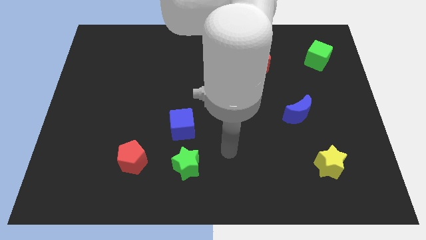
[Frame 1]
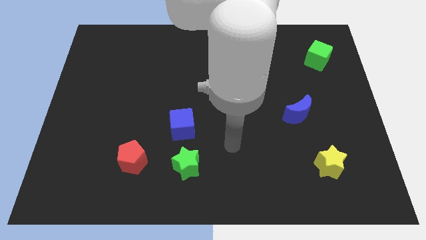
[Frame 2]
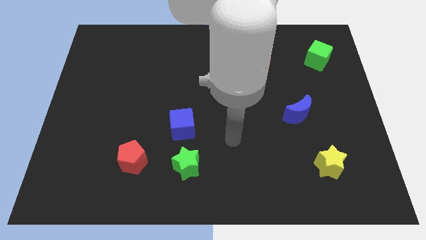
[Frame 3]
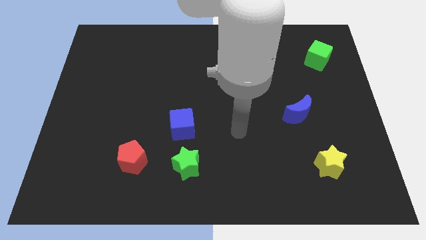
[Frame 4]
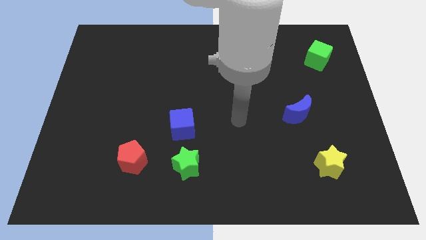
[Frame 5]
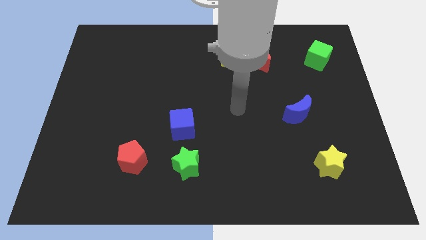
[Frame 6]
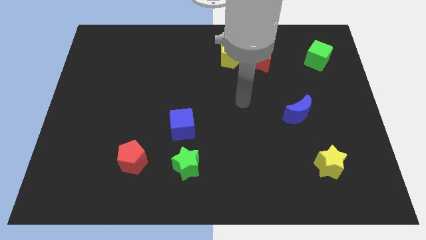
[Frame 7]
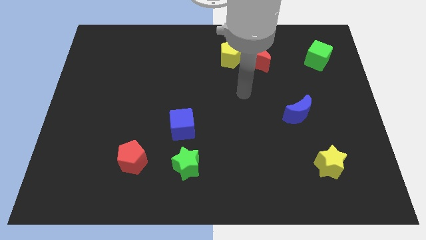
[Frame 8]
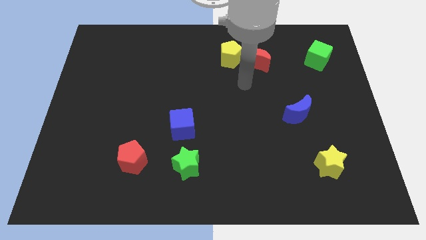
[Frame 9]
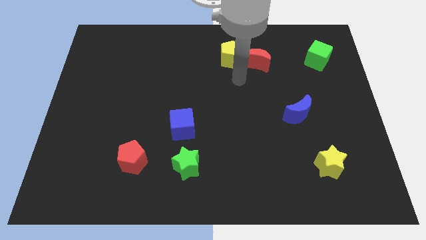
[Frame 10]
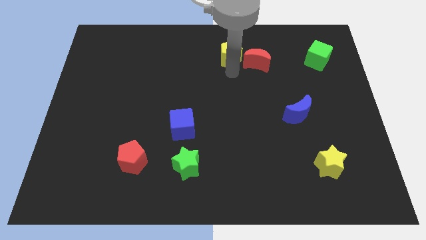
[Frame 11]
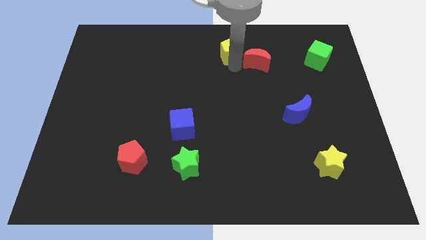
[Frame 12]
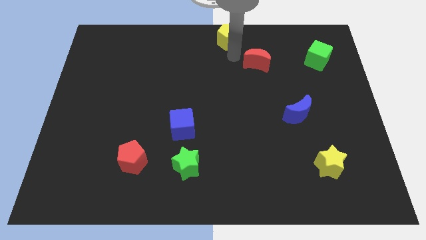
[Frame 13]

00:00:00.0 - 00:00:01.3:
move the red moon away from the yellow pentagon

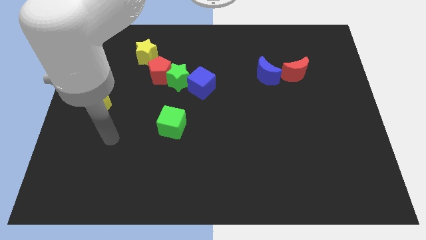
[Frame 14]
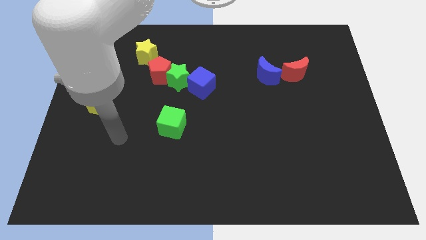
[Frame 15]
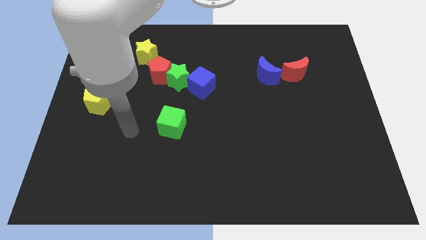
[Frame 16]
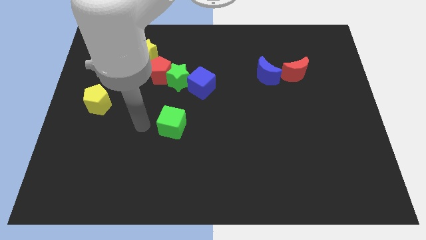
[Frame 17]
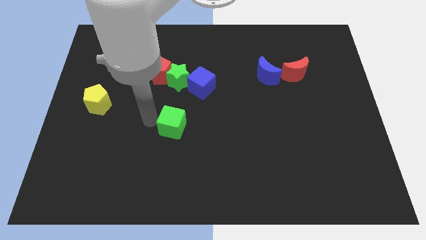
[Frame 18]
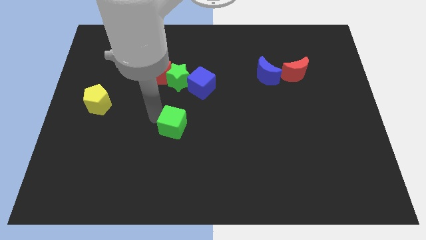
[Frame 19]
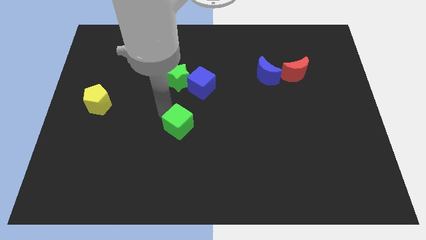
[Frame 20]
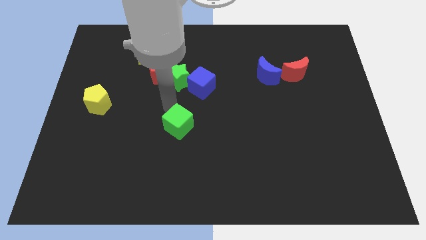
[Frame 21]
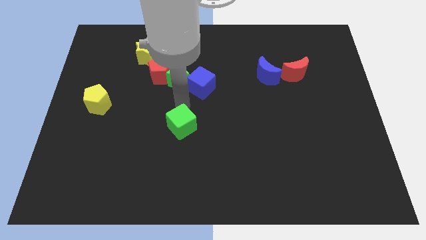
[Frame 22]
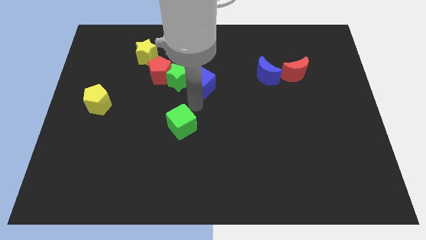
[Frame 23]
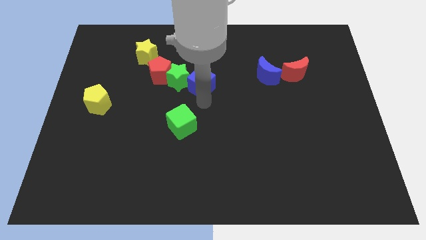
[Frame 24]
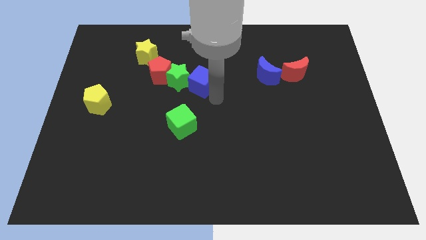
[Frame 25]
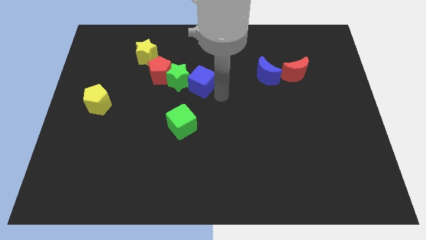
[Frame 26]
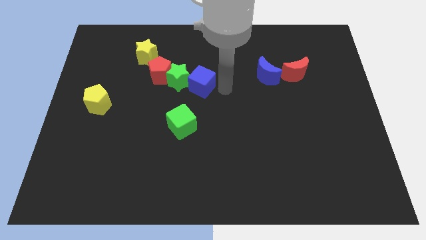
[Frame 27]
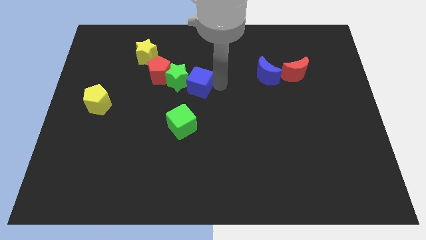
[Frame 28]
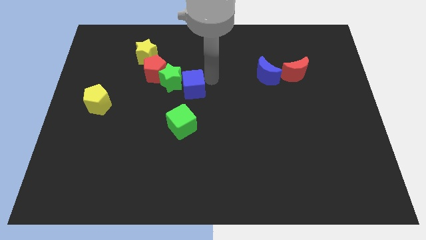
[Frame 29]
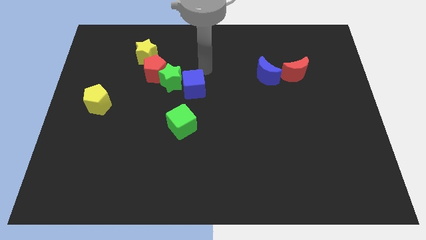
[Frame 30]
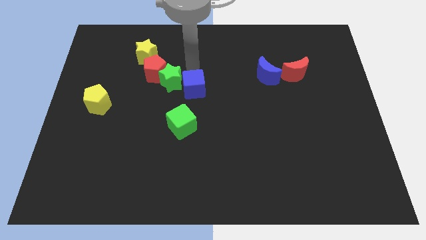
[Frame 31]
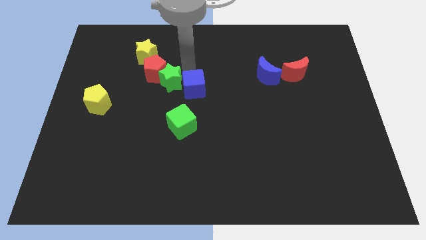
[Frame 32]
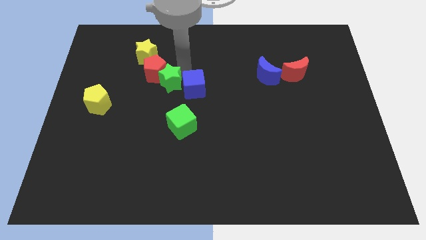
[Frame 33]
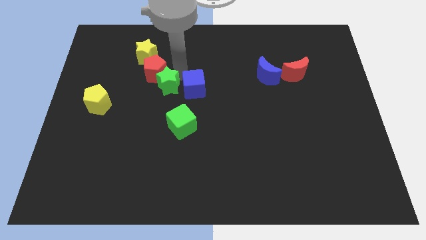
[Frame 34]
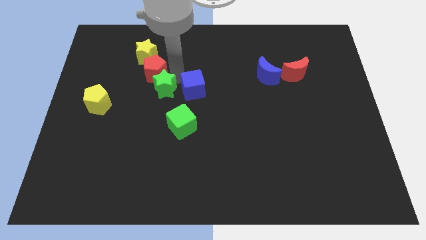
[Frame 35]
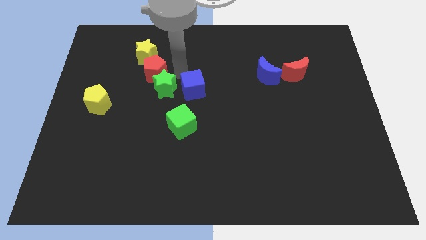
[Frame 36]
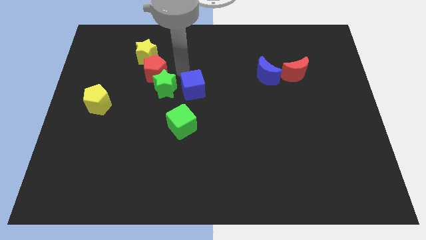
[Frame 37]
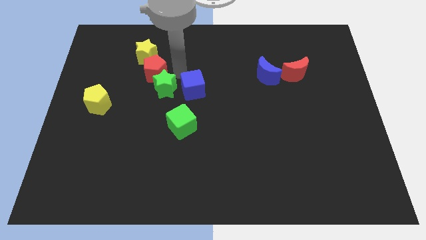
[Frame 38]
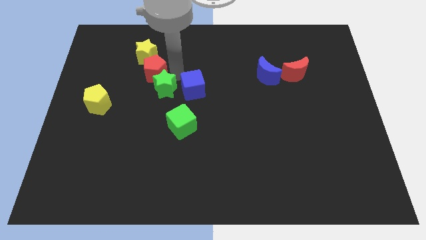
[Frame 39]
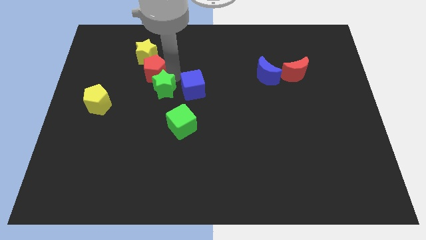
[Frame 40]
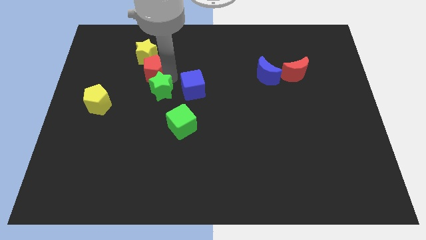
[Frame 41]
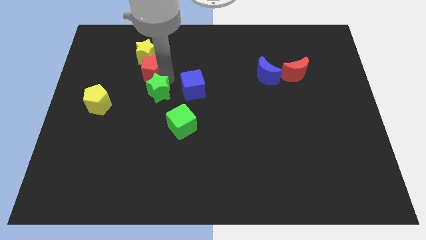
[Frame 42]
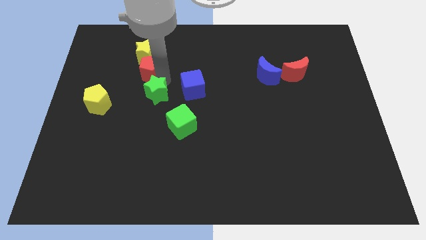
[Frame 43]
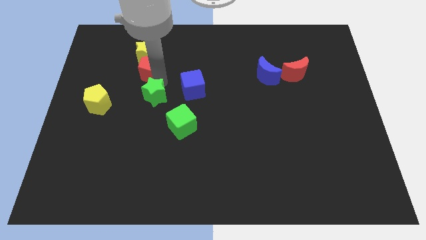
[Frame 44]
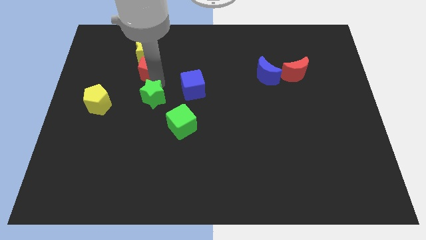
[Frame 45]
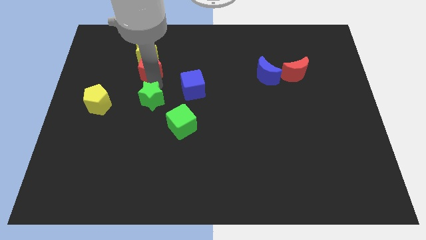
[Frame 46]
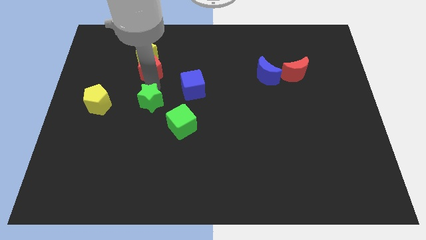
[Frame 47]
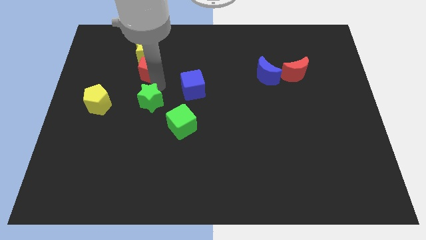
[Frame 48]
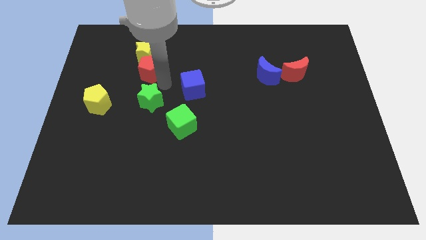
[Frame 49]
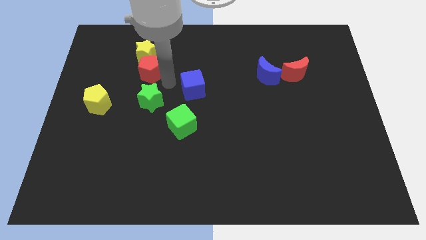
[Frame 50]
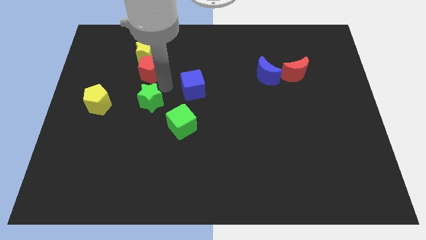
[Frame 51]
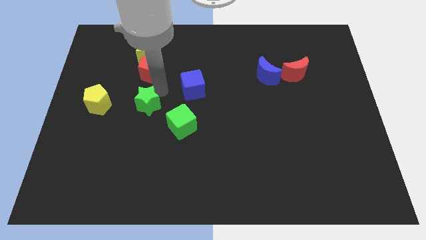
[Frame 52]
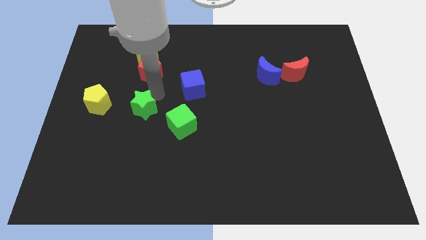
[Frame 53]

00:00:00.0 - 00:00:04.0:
pull the green star apart from the red pentagon and blue cube

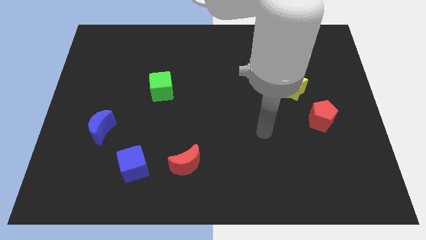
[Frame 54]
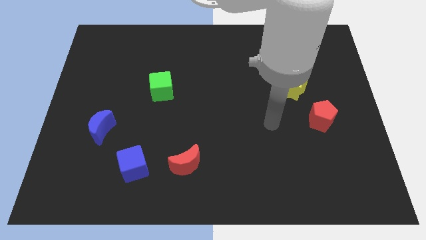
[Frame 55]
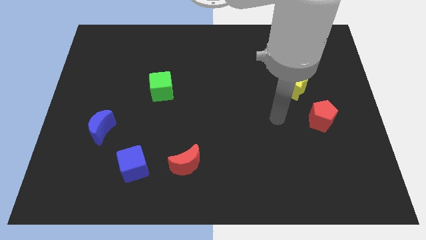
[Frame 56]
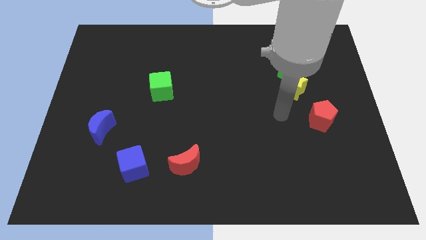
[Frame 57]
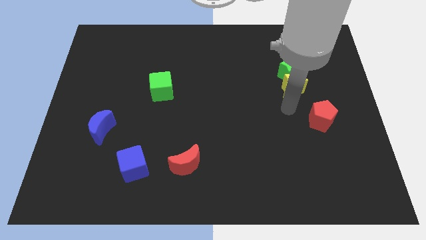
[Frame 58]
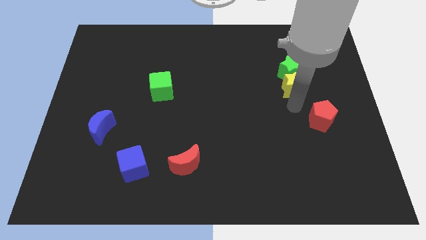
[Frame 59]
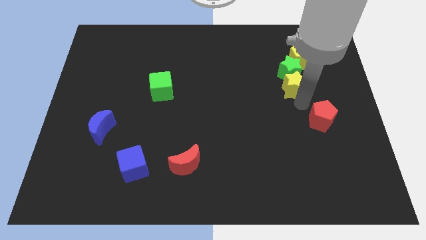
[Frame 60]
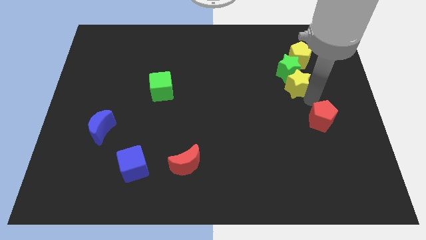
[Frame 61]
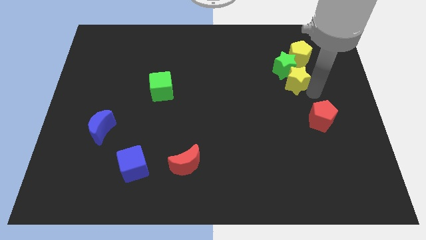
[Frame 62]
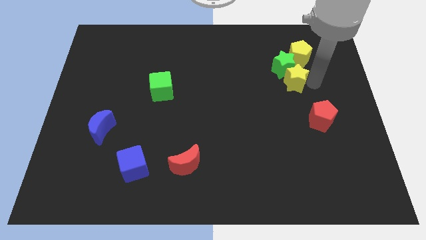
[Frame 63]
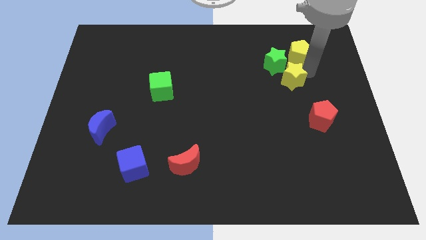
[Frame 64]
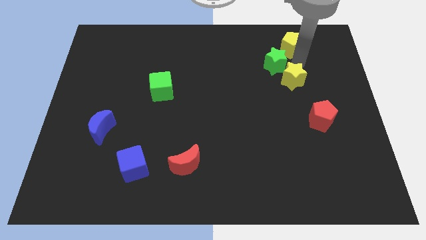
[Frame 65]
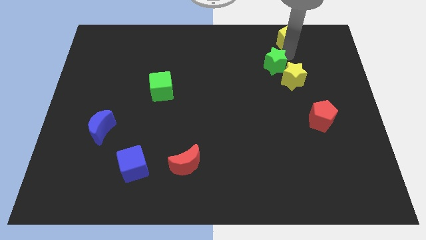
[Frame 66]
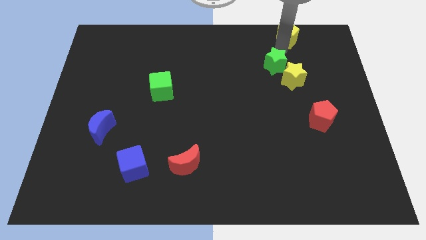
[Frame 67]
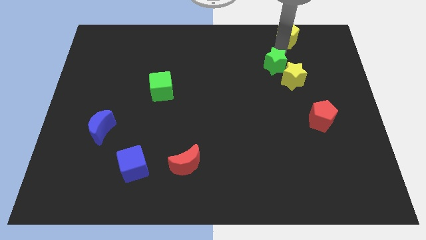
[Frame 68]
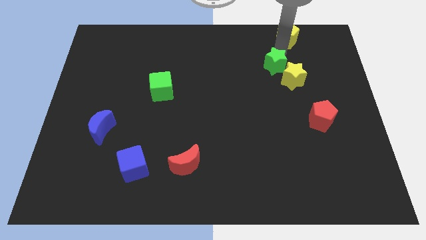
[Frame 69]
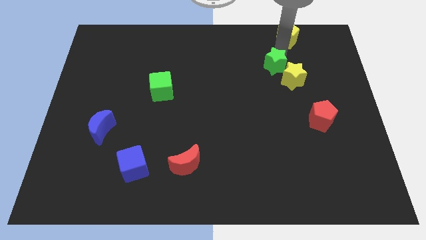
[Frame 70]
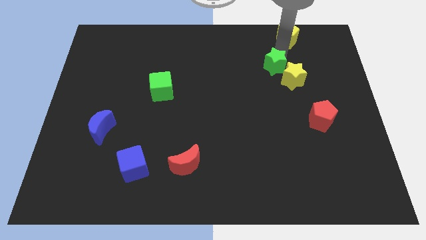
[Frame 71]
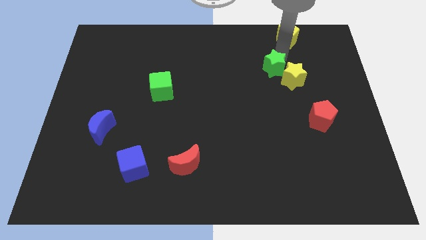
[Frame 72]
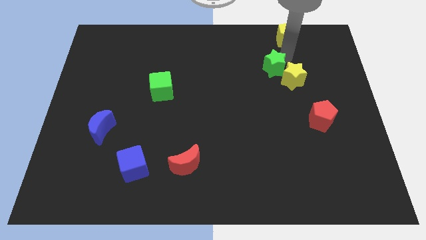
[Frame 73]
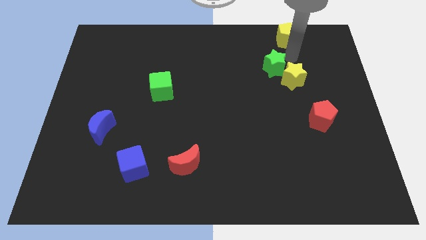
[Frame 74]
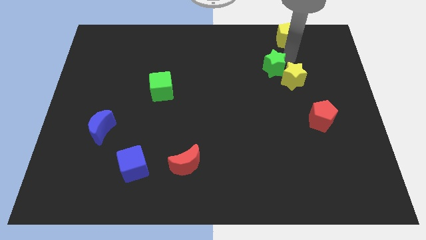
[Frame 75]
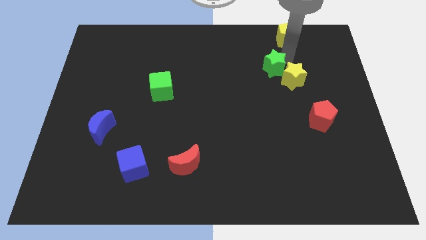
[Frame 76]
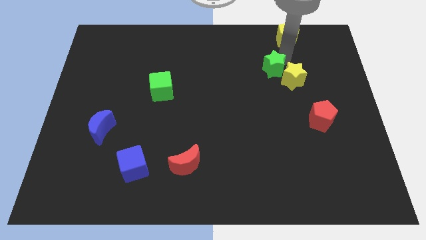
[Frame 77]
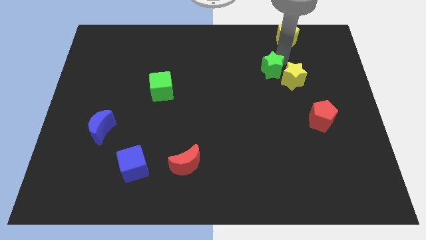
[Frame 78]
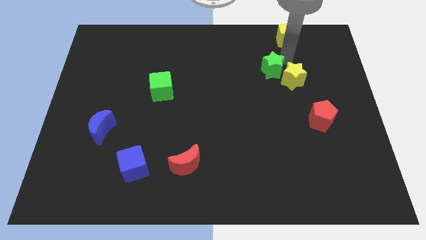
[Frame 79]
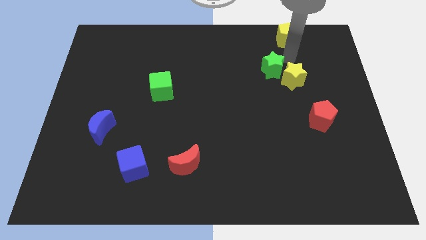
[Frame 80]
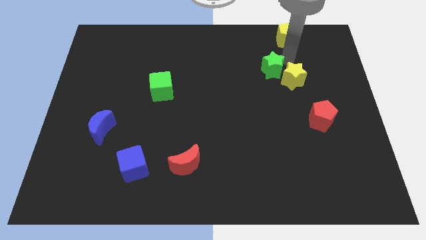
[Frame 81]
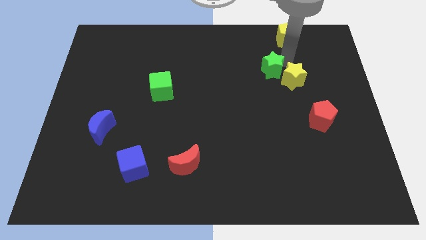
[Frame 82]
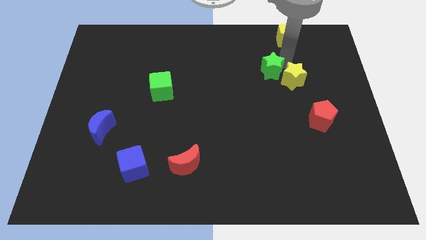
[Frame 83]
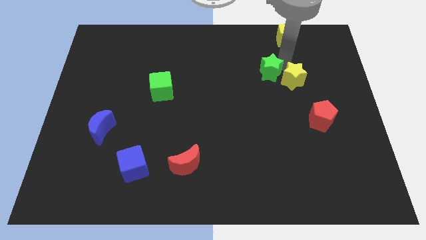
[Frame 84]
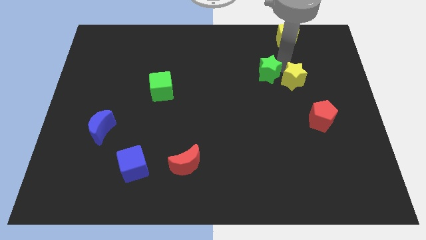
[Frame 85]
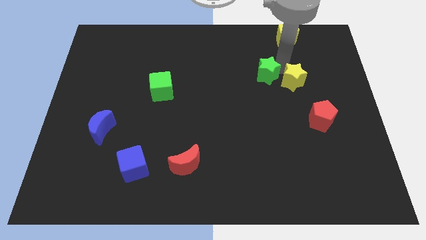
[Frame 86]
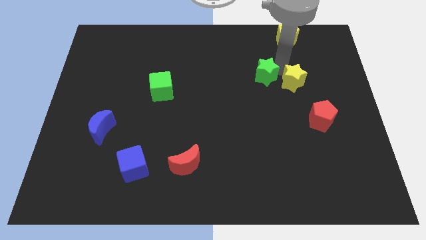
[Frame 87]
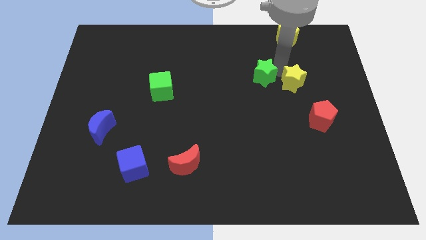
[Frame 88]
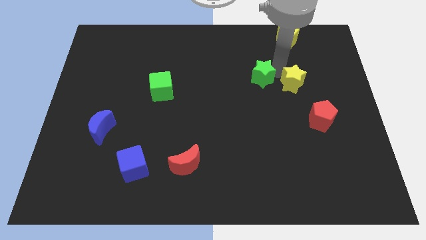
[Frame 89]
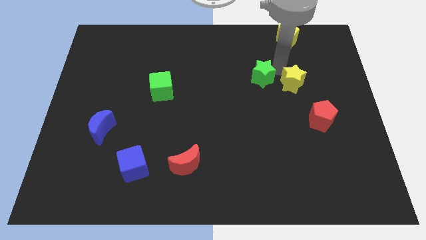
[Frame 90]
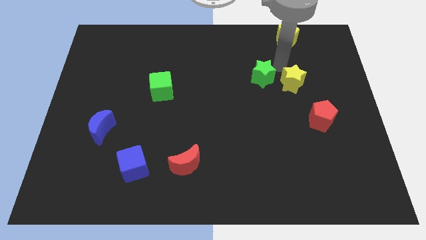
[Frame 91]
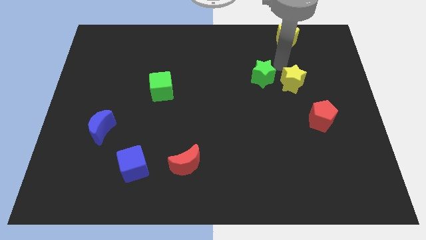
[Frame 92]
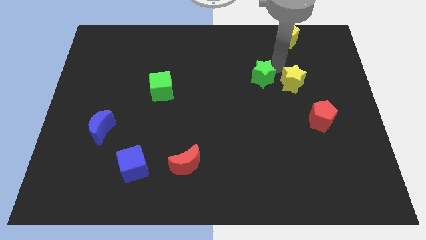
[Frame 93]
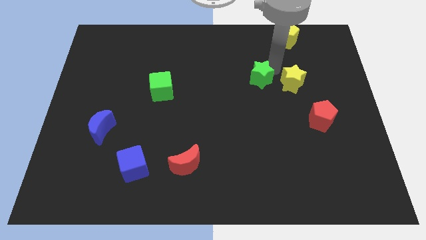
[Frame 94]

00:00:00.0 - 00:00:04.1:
pull the green star apart from the yellow star and yellow pentagon
